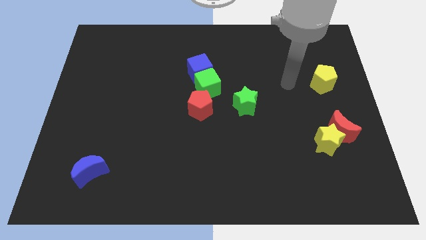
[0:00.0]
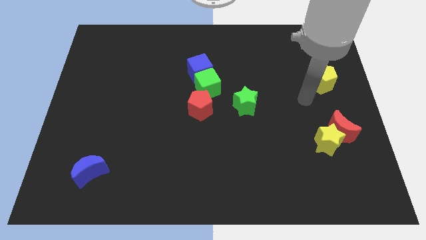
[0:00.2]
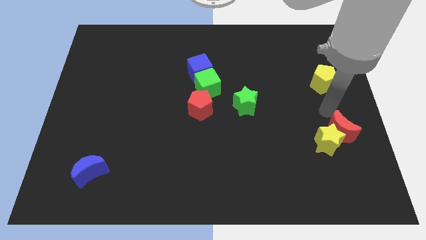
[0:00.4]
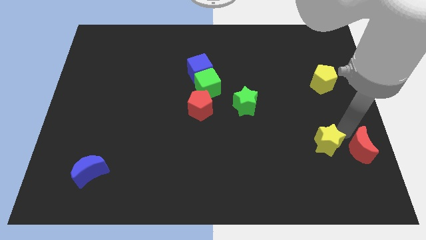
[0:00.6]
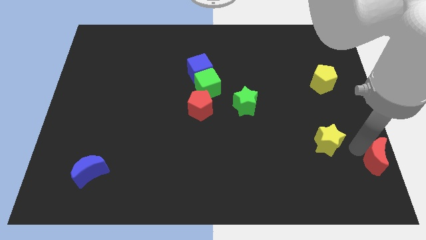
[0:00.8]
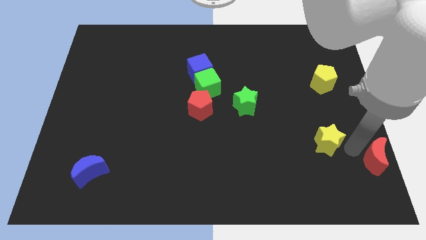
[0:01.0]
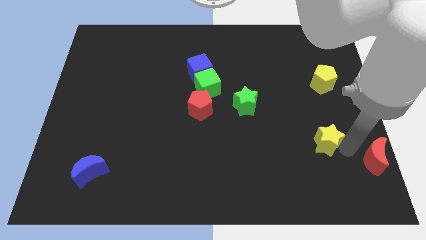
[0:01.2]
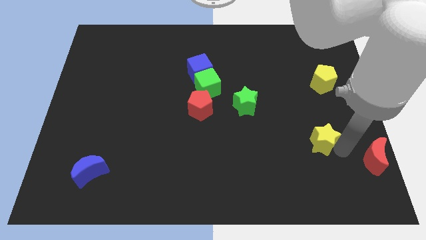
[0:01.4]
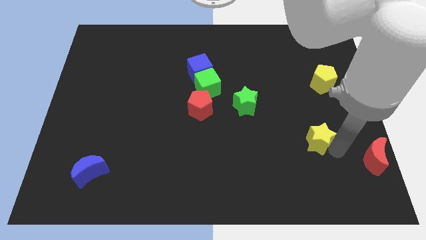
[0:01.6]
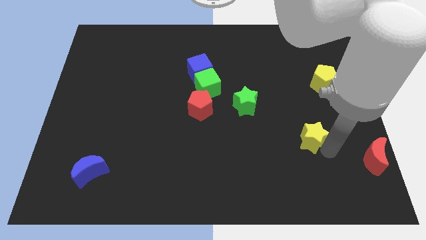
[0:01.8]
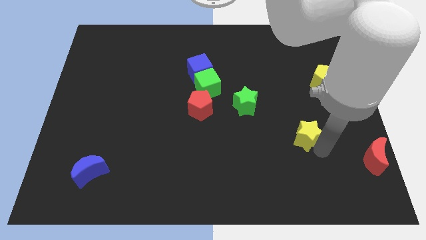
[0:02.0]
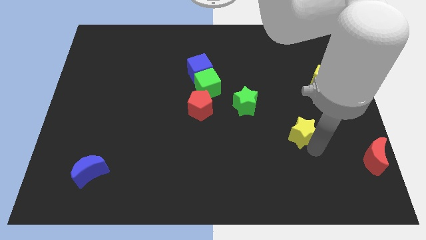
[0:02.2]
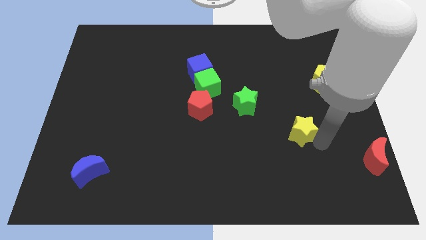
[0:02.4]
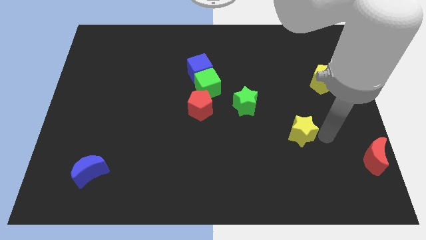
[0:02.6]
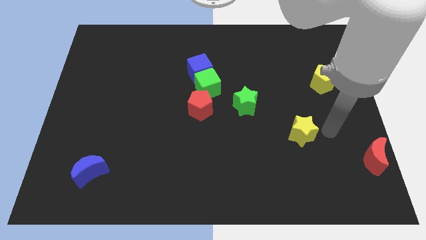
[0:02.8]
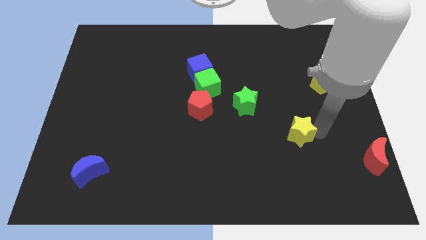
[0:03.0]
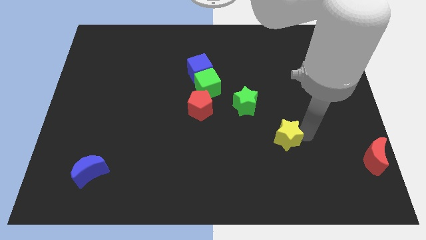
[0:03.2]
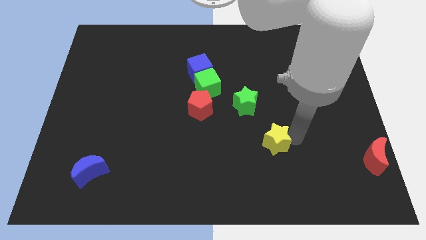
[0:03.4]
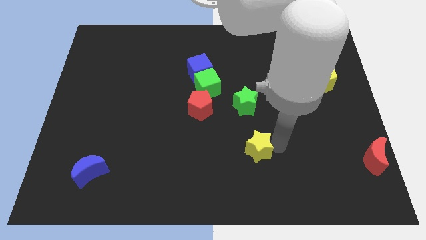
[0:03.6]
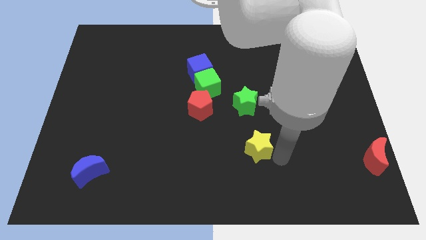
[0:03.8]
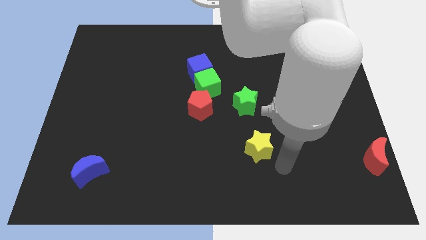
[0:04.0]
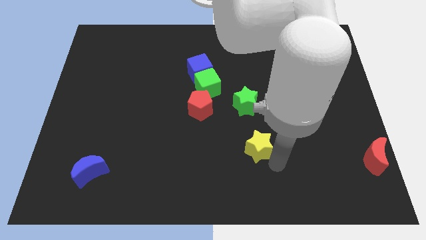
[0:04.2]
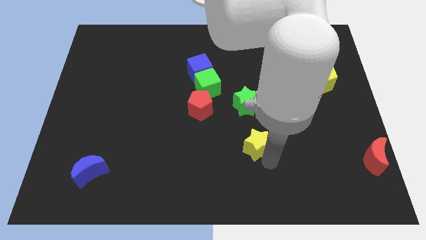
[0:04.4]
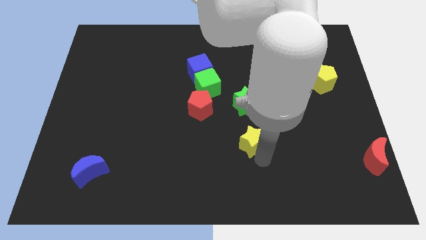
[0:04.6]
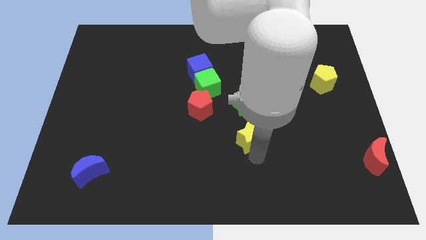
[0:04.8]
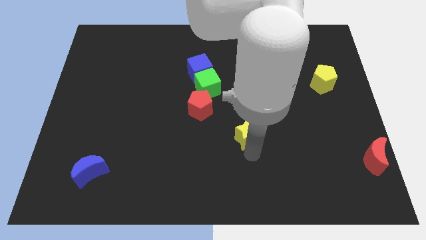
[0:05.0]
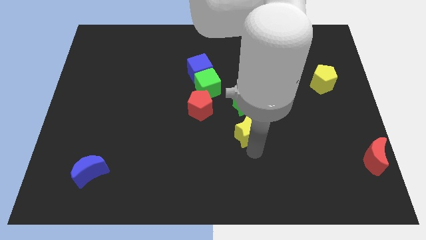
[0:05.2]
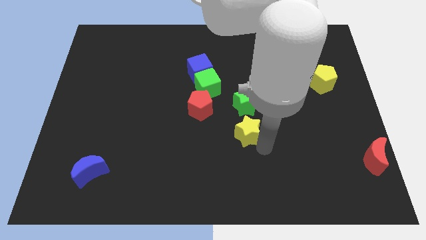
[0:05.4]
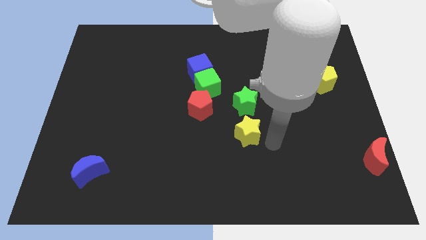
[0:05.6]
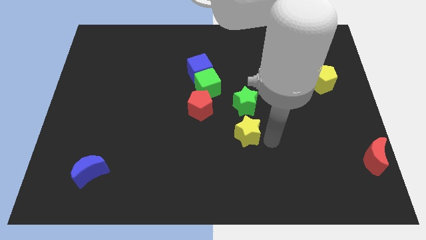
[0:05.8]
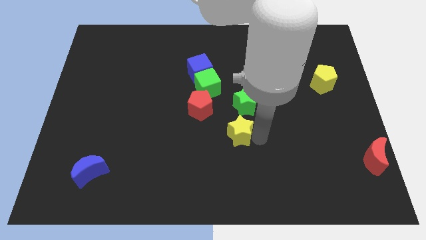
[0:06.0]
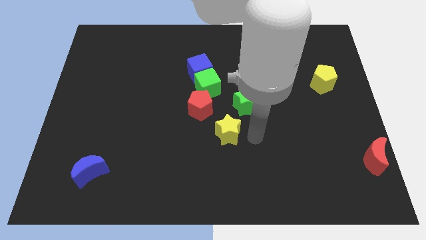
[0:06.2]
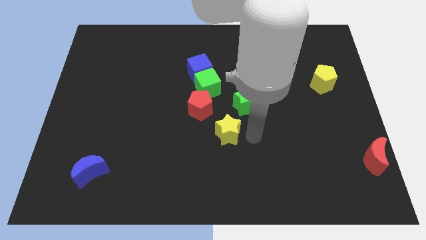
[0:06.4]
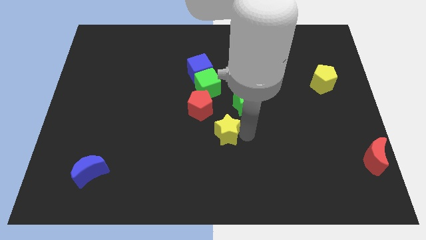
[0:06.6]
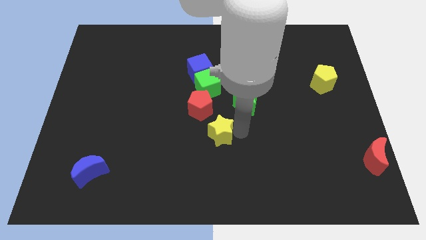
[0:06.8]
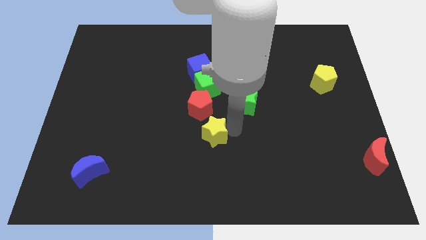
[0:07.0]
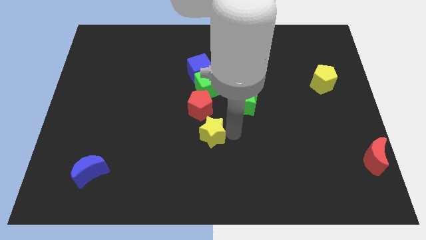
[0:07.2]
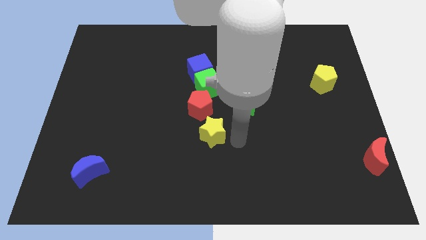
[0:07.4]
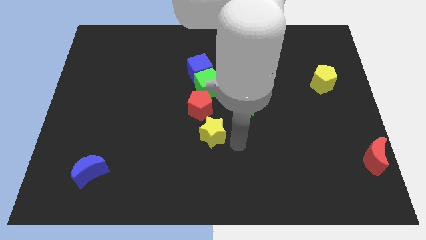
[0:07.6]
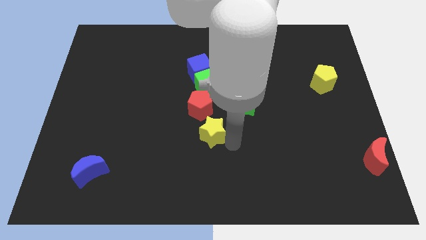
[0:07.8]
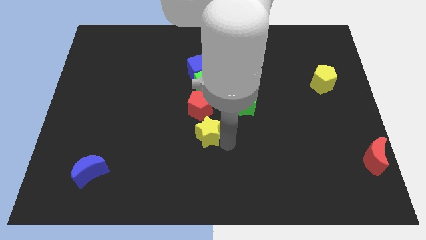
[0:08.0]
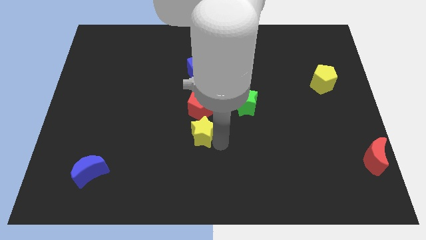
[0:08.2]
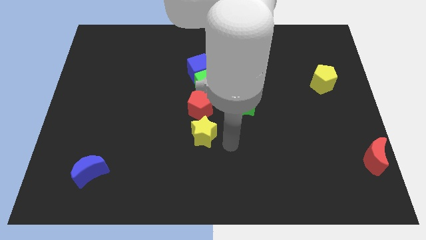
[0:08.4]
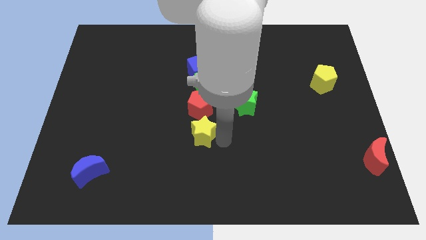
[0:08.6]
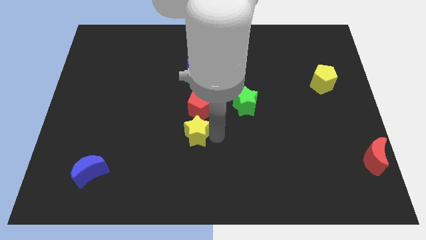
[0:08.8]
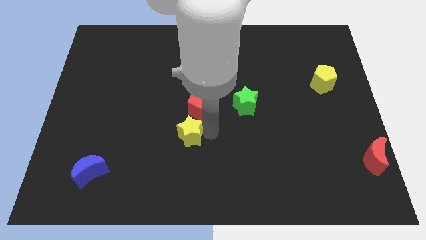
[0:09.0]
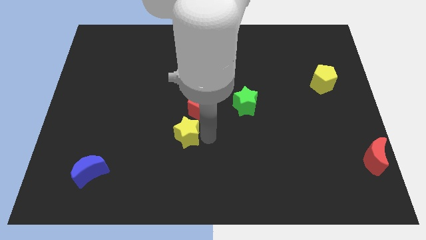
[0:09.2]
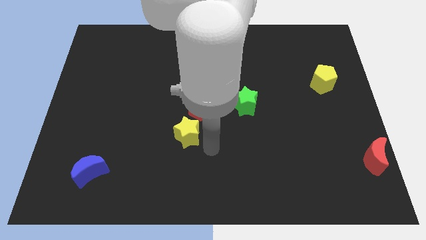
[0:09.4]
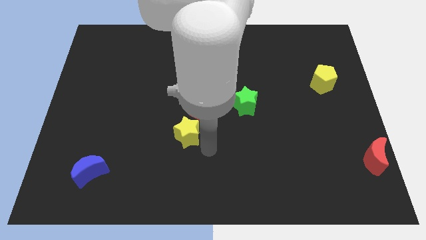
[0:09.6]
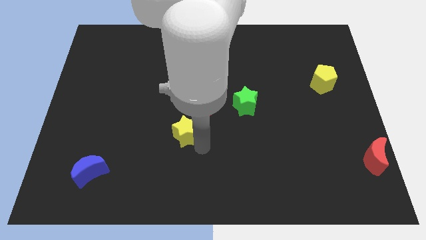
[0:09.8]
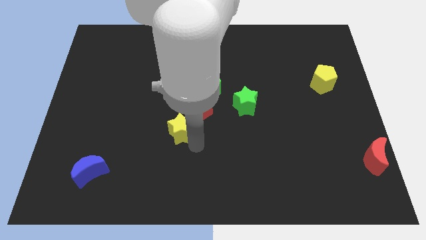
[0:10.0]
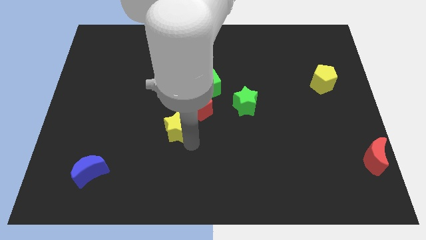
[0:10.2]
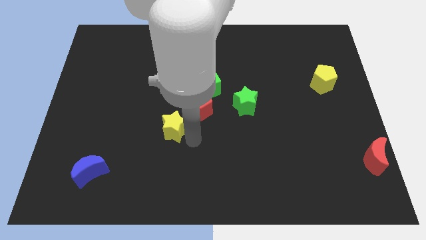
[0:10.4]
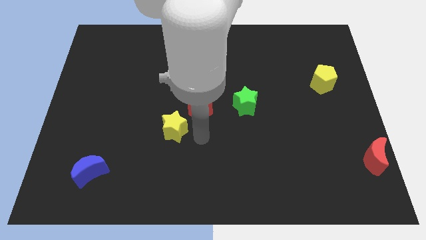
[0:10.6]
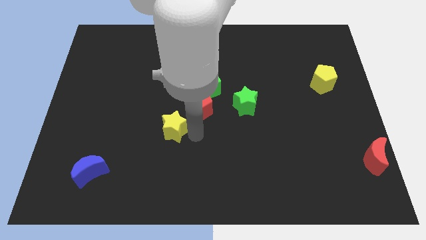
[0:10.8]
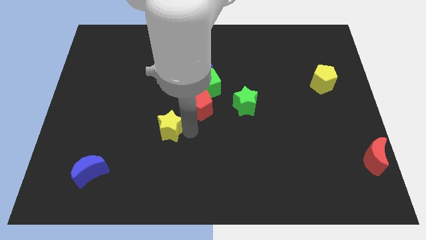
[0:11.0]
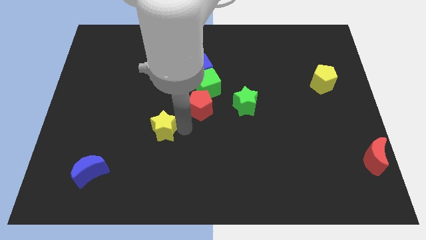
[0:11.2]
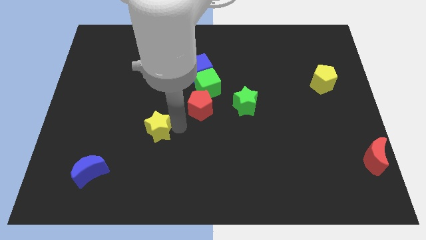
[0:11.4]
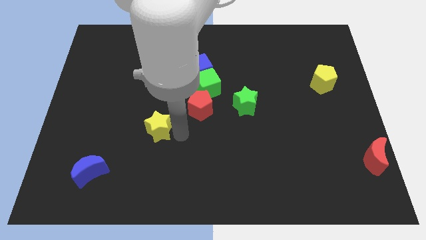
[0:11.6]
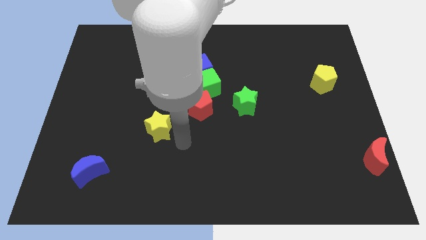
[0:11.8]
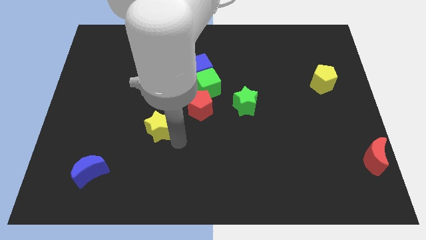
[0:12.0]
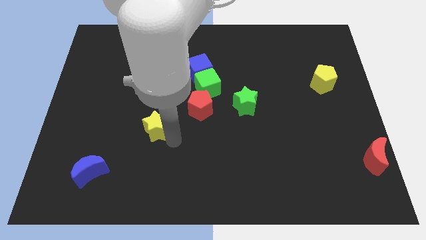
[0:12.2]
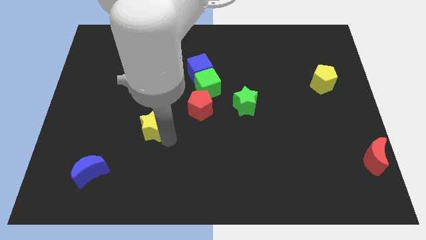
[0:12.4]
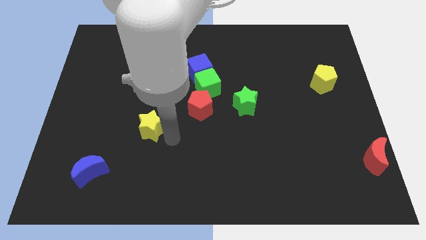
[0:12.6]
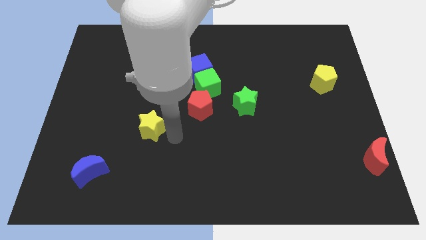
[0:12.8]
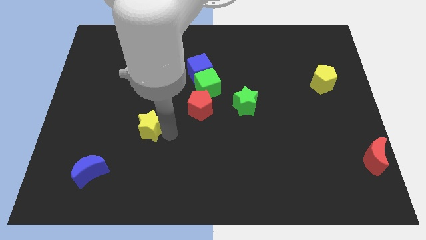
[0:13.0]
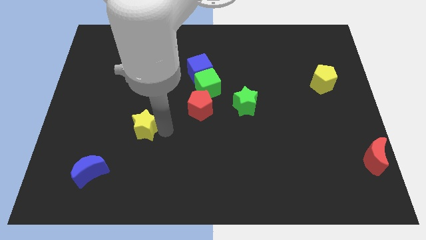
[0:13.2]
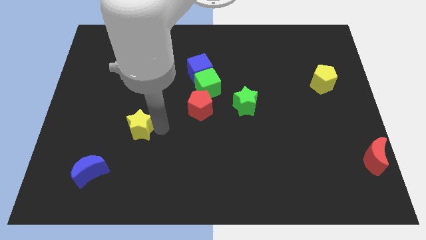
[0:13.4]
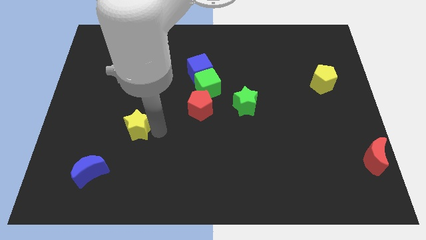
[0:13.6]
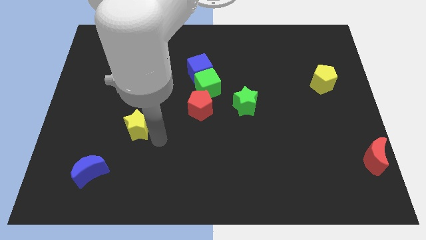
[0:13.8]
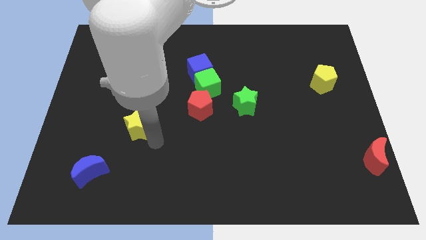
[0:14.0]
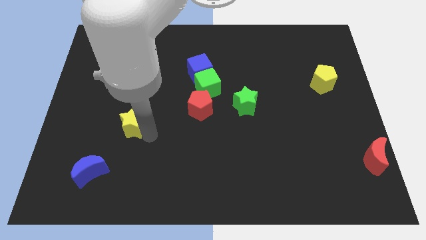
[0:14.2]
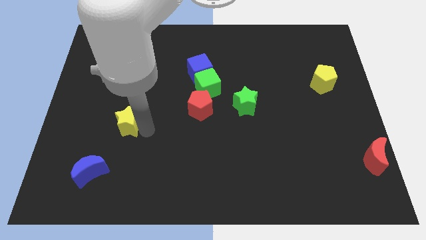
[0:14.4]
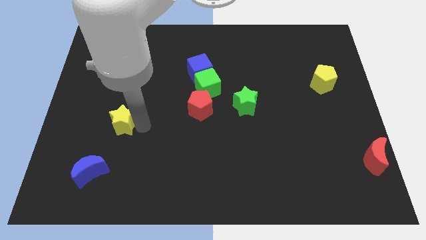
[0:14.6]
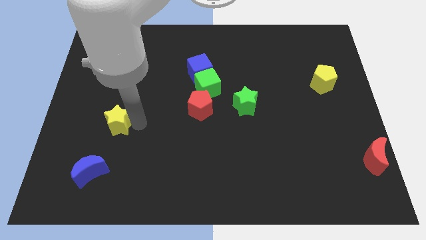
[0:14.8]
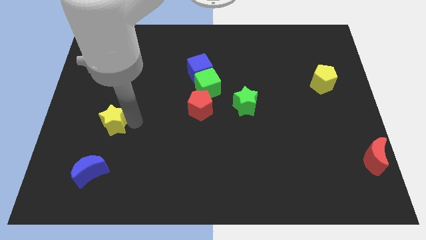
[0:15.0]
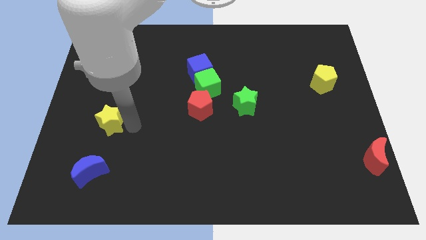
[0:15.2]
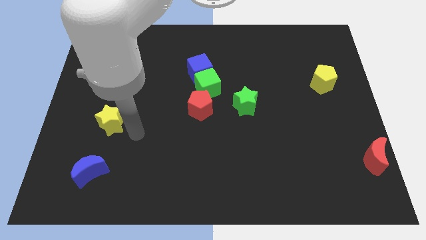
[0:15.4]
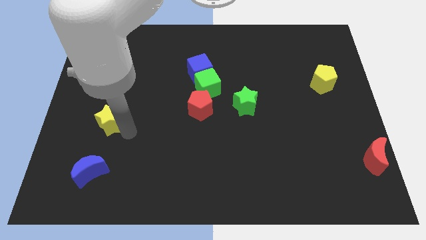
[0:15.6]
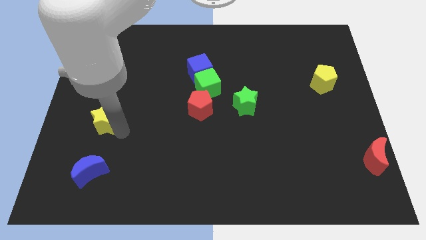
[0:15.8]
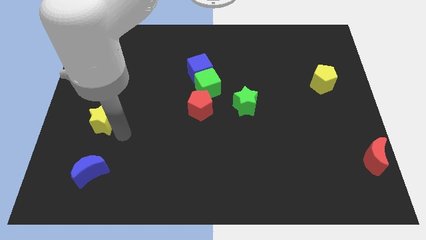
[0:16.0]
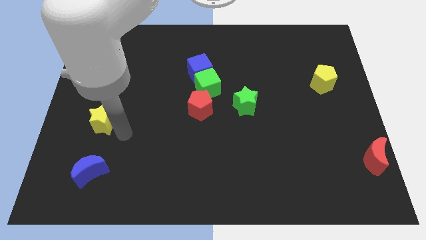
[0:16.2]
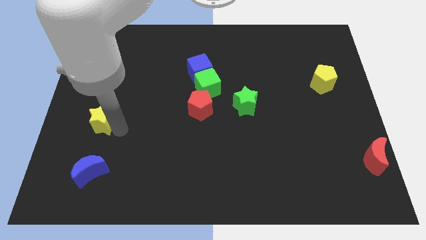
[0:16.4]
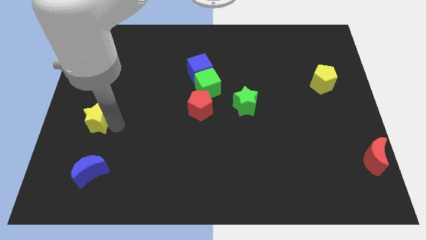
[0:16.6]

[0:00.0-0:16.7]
move the yellow star to the left side of the board
